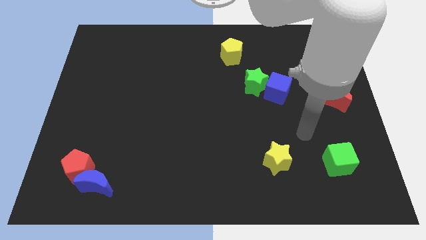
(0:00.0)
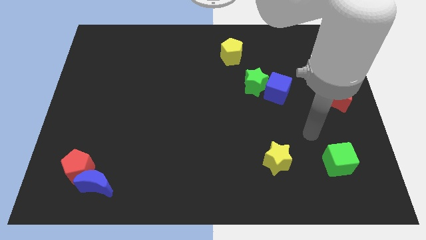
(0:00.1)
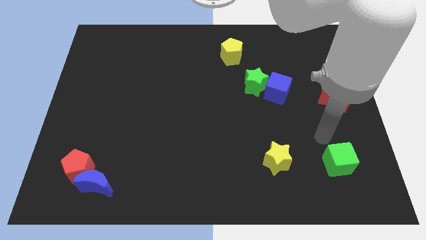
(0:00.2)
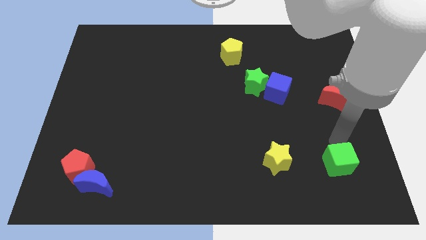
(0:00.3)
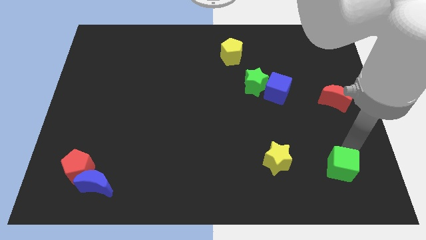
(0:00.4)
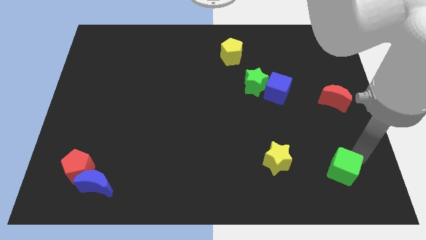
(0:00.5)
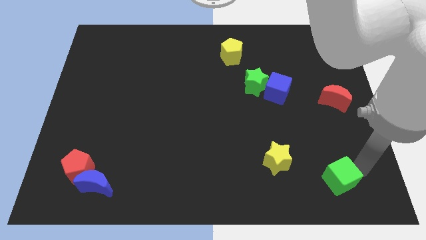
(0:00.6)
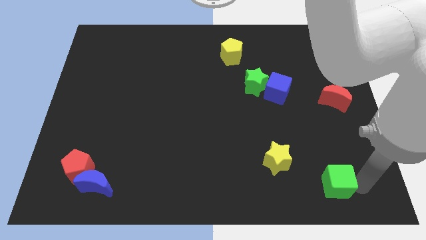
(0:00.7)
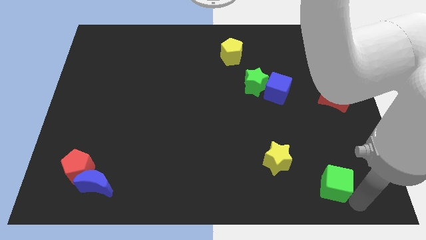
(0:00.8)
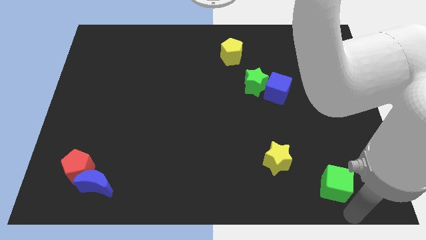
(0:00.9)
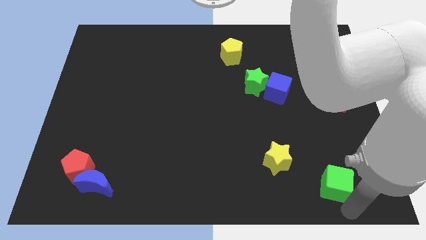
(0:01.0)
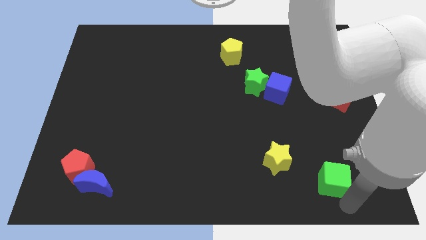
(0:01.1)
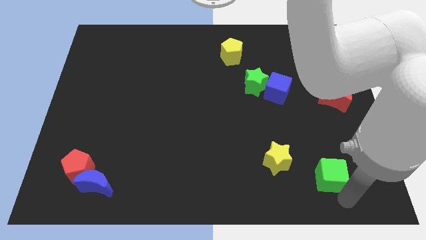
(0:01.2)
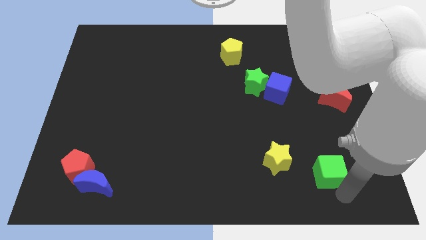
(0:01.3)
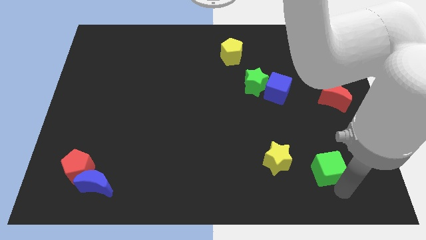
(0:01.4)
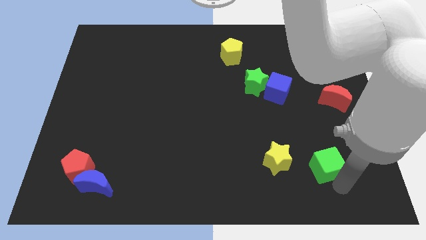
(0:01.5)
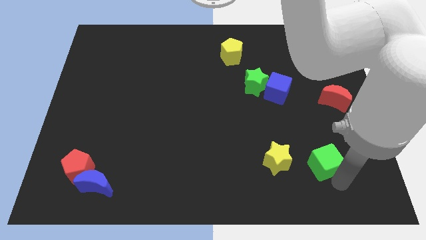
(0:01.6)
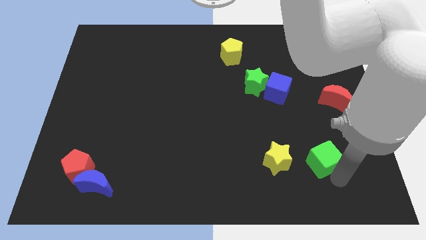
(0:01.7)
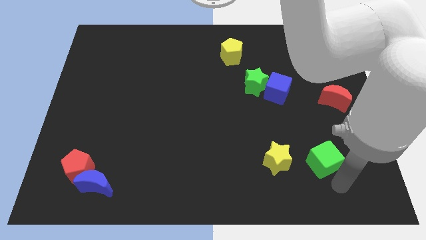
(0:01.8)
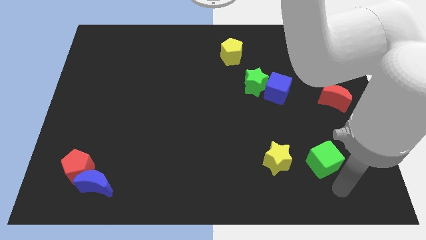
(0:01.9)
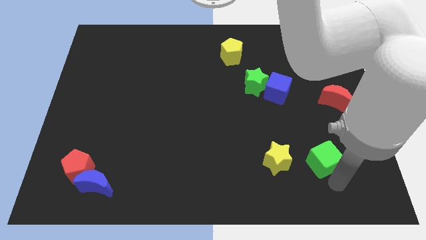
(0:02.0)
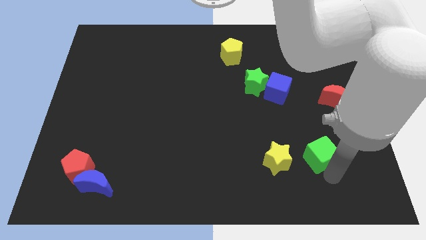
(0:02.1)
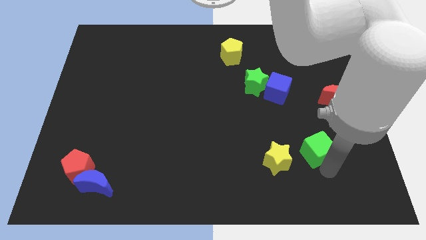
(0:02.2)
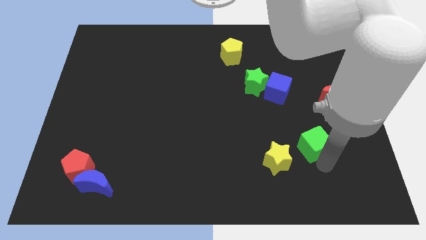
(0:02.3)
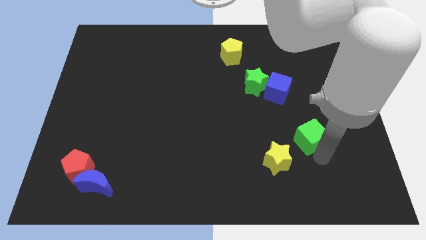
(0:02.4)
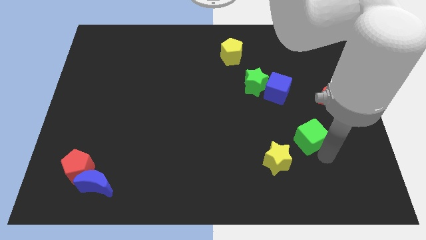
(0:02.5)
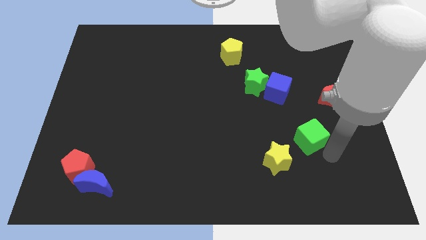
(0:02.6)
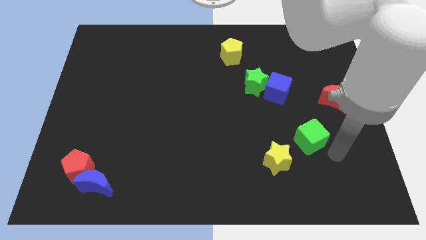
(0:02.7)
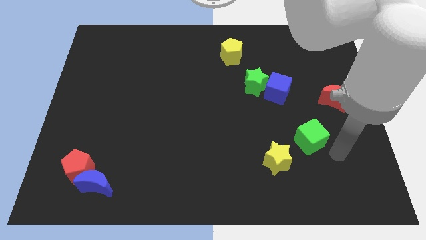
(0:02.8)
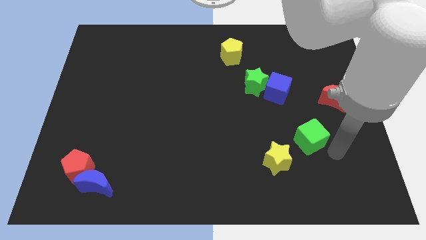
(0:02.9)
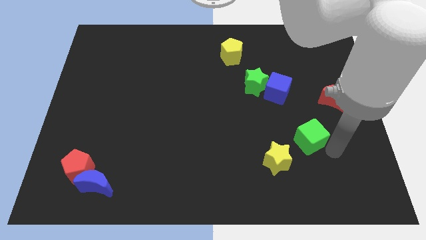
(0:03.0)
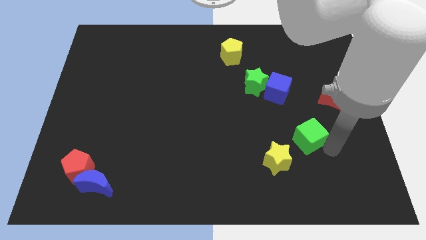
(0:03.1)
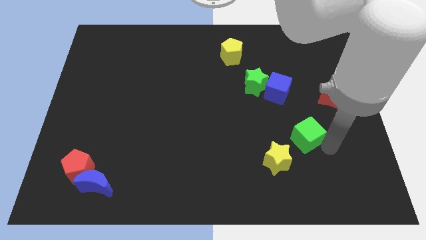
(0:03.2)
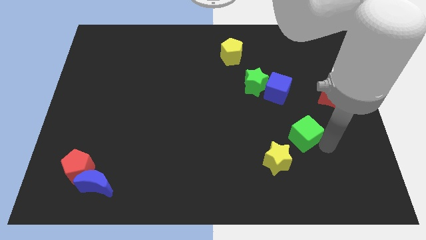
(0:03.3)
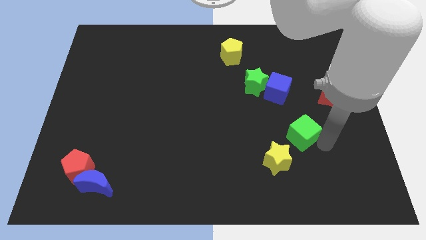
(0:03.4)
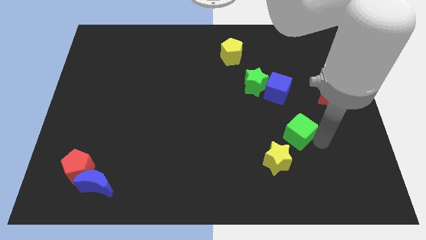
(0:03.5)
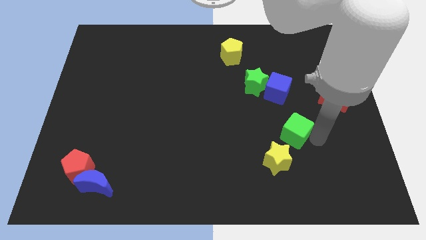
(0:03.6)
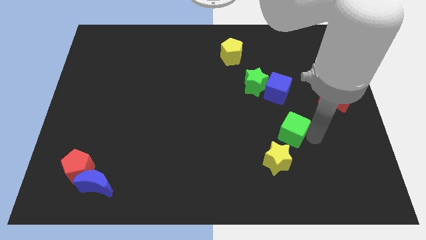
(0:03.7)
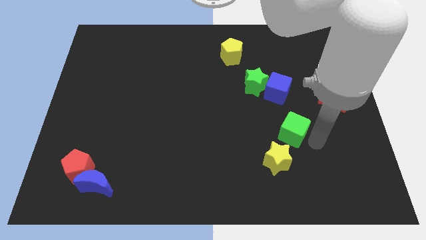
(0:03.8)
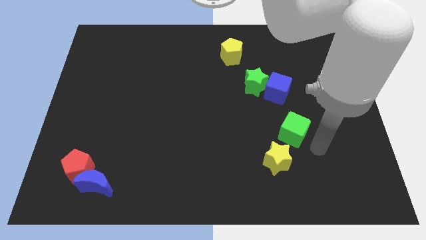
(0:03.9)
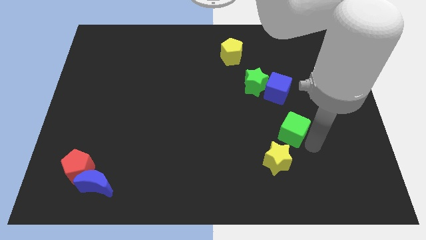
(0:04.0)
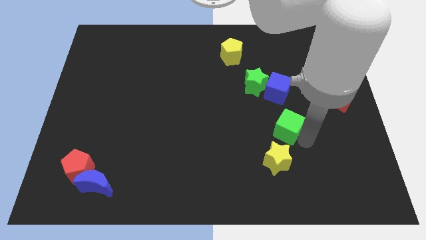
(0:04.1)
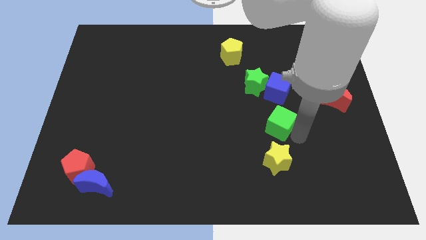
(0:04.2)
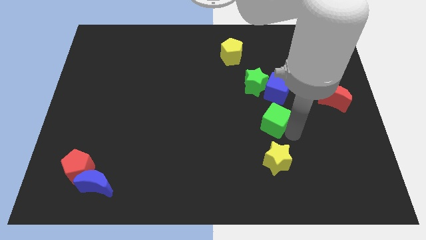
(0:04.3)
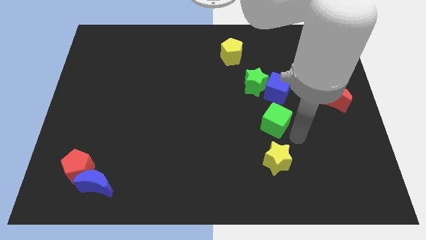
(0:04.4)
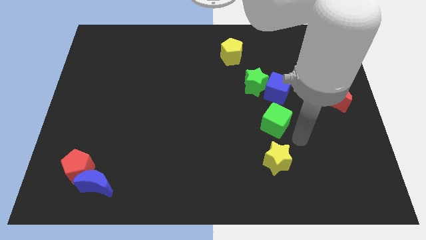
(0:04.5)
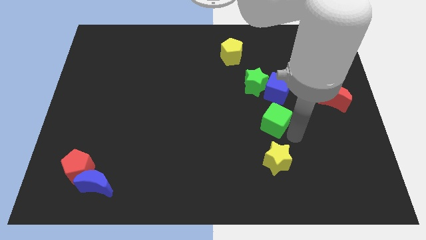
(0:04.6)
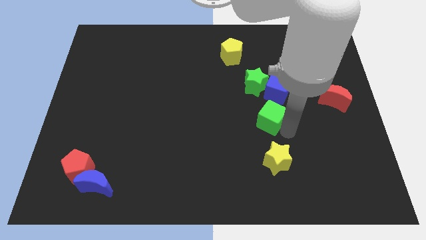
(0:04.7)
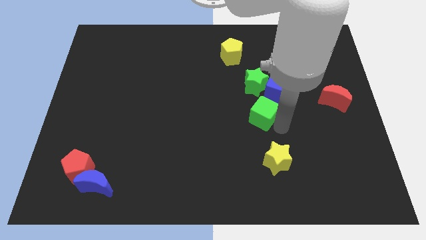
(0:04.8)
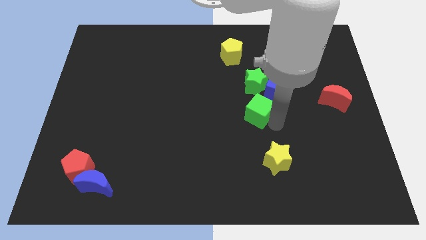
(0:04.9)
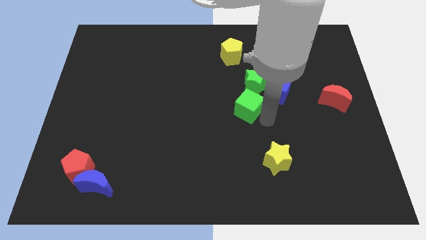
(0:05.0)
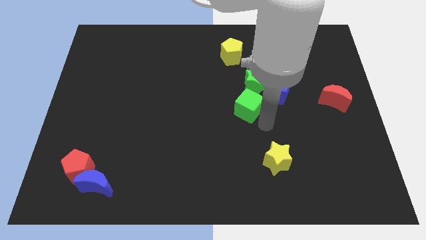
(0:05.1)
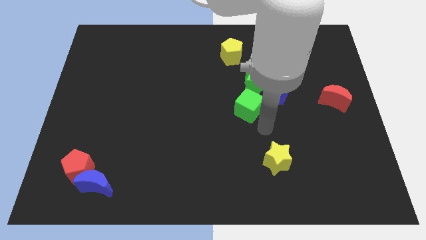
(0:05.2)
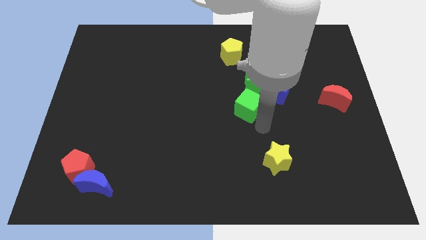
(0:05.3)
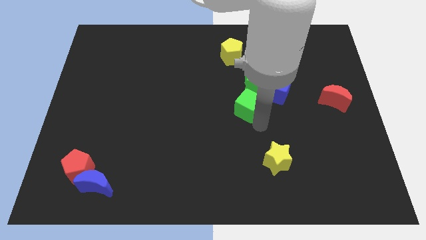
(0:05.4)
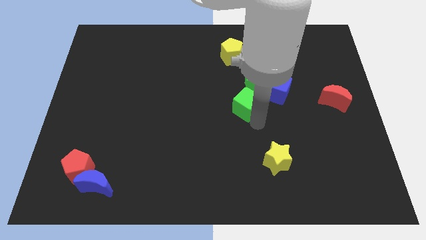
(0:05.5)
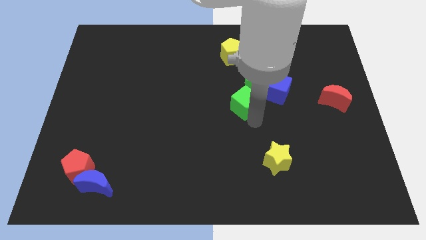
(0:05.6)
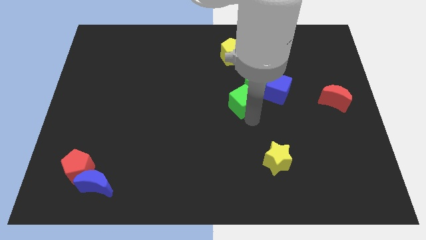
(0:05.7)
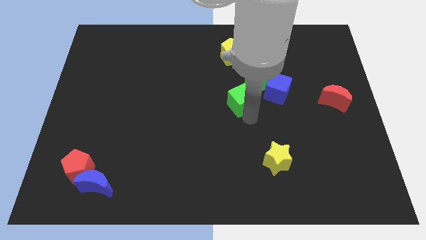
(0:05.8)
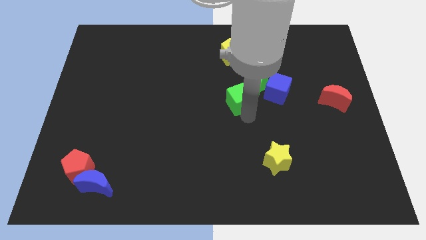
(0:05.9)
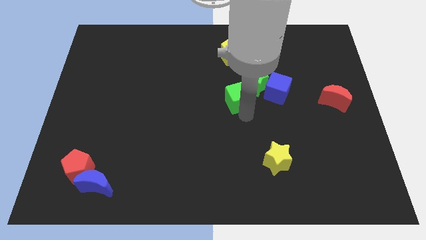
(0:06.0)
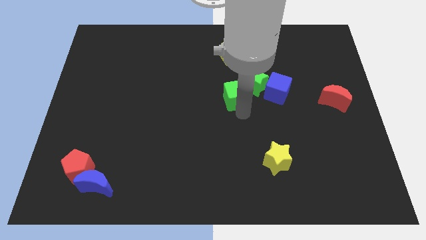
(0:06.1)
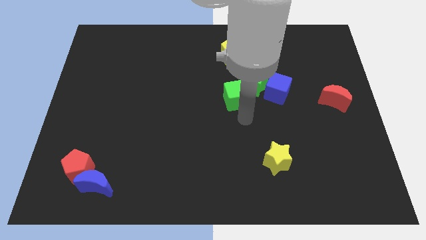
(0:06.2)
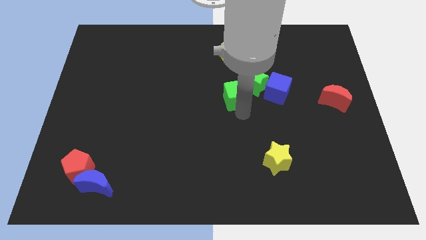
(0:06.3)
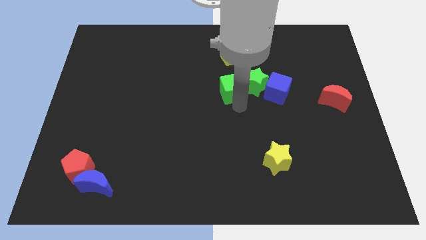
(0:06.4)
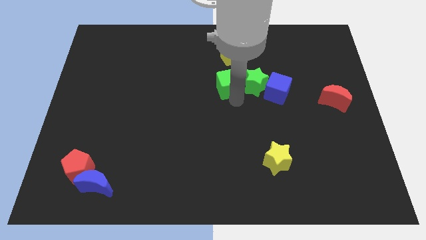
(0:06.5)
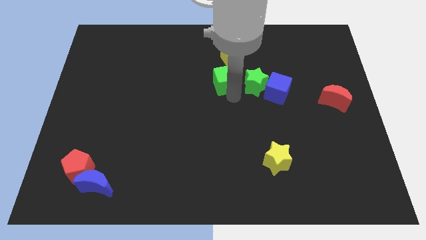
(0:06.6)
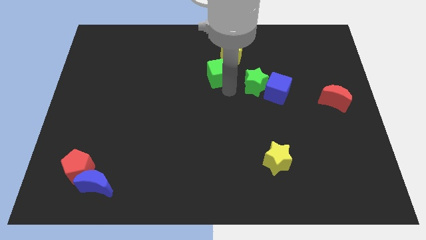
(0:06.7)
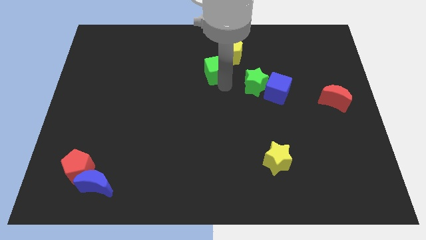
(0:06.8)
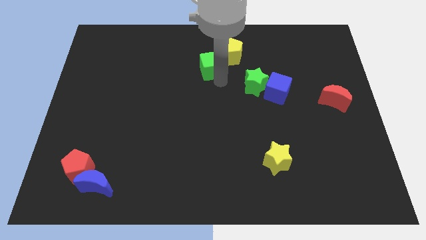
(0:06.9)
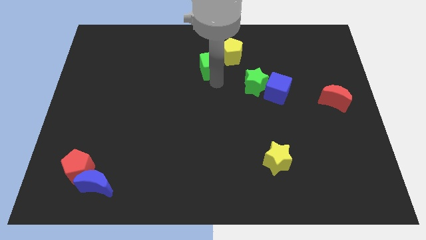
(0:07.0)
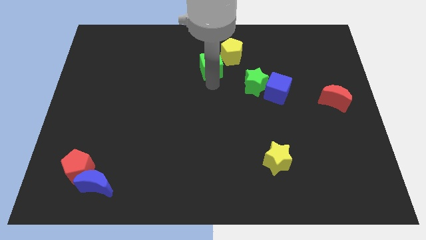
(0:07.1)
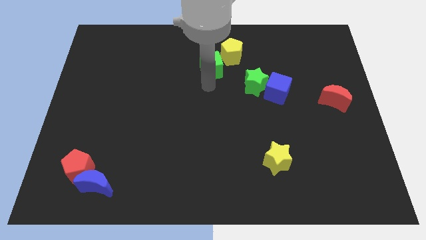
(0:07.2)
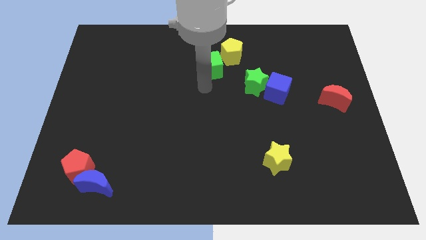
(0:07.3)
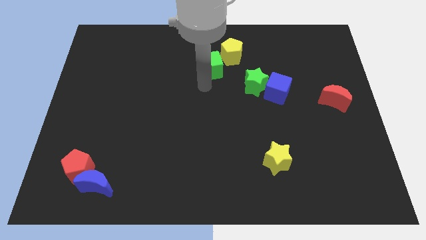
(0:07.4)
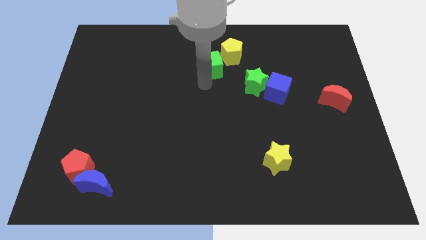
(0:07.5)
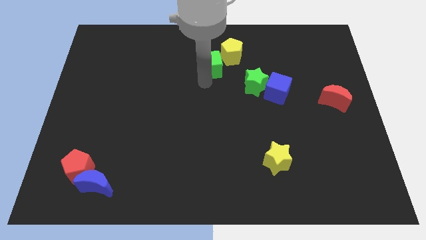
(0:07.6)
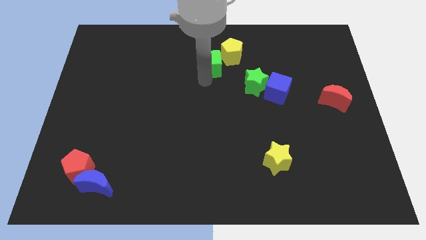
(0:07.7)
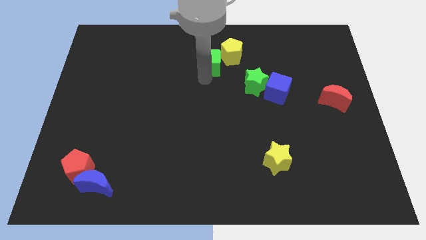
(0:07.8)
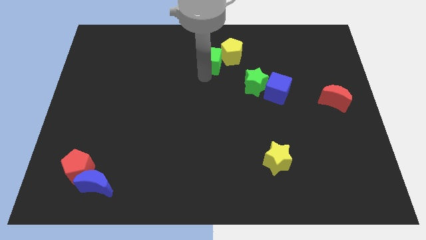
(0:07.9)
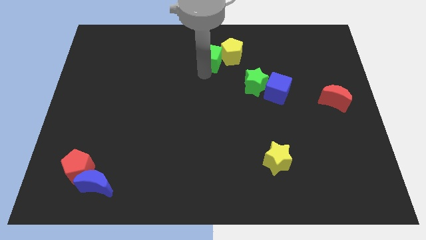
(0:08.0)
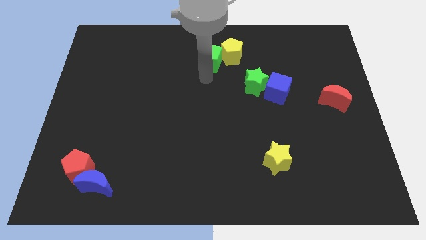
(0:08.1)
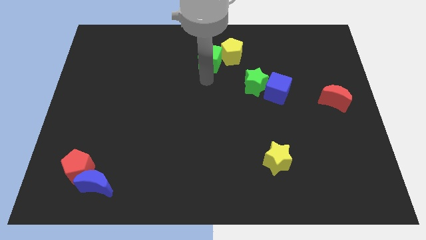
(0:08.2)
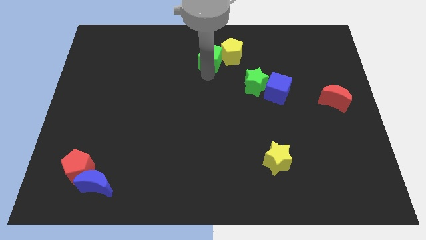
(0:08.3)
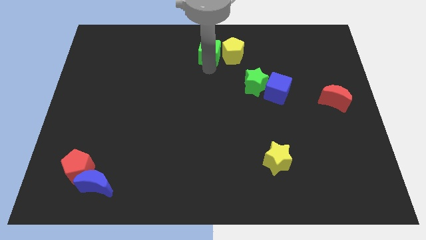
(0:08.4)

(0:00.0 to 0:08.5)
slide the green cube to the towards your base
